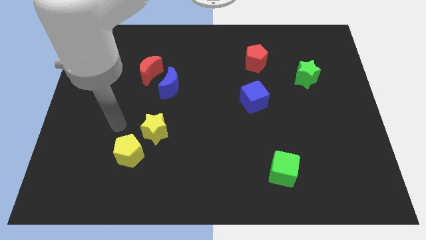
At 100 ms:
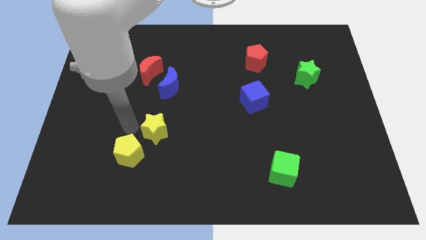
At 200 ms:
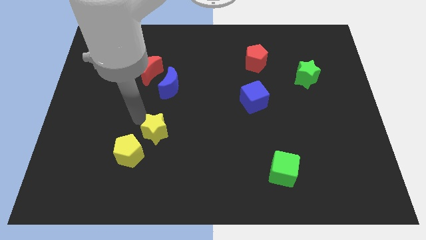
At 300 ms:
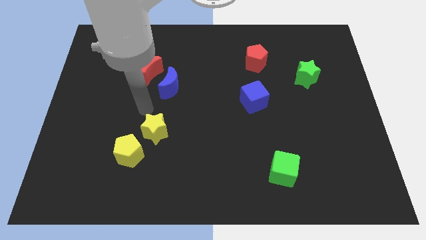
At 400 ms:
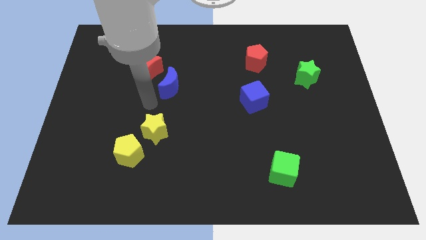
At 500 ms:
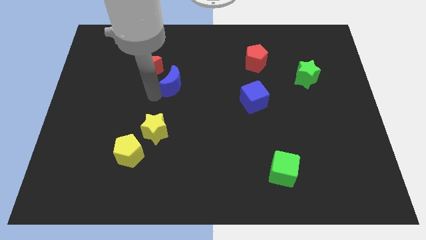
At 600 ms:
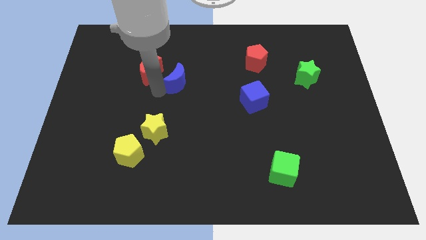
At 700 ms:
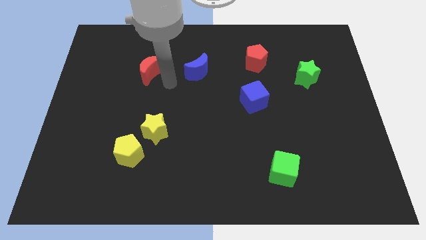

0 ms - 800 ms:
separate the red moon from the blue moon

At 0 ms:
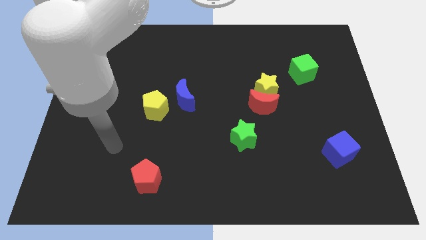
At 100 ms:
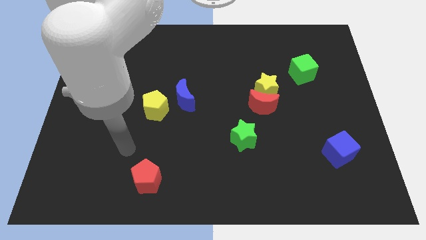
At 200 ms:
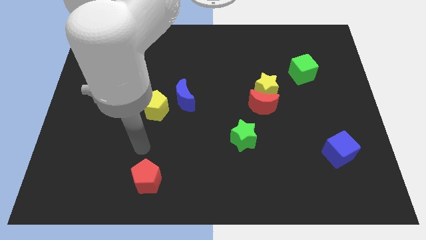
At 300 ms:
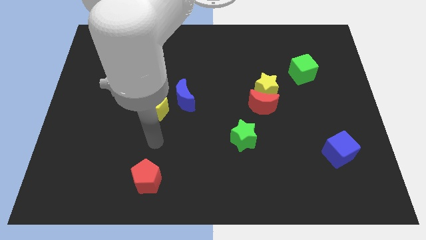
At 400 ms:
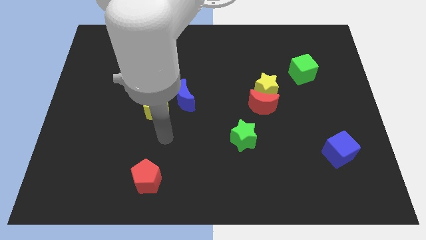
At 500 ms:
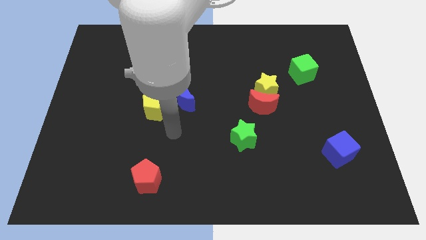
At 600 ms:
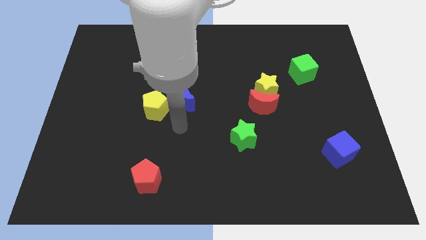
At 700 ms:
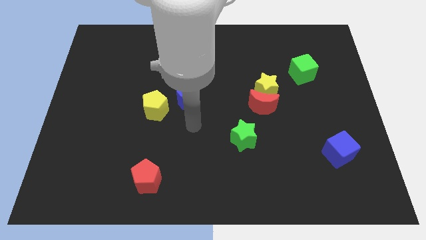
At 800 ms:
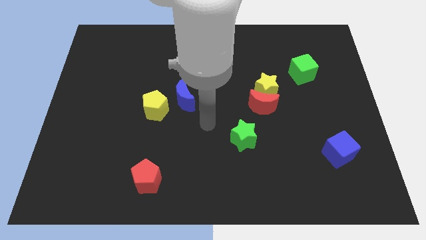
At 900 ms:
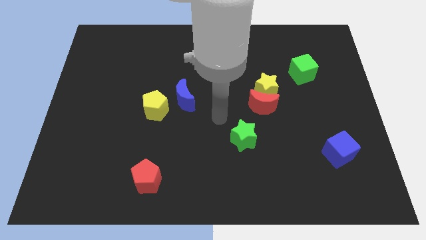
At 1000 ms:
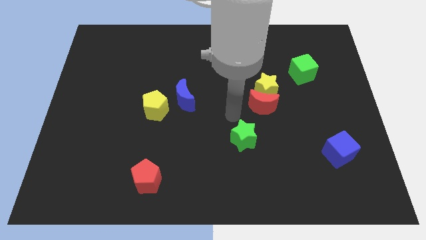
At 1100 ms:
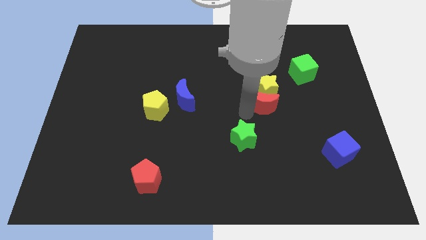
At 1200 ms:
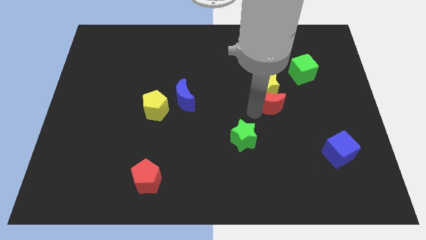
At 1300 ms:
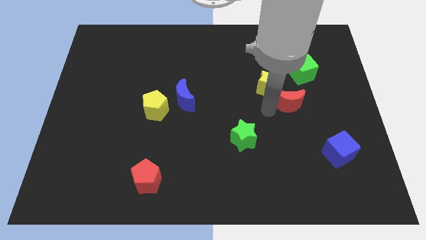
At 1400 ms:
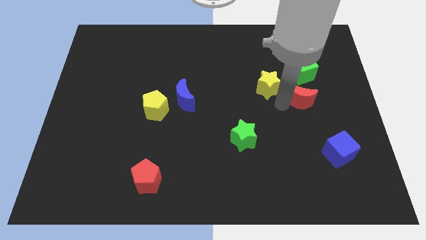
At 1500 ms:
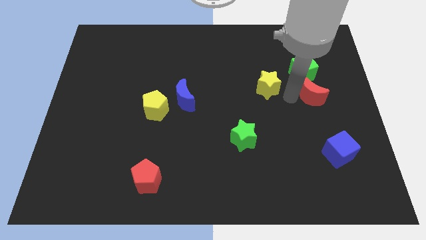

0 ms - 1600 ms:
separate the yellow star from the red moon

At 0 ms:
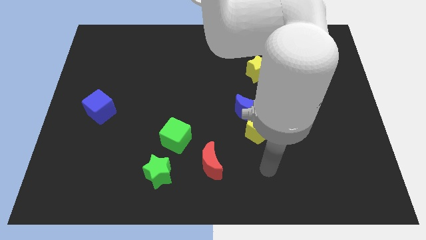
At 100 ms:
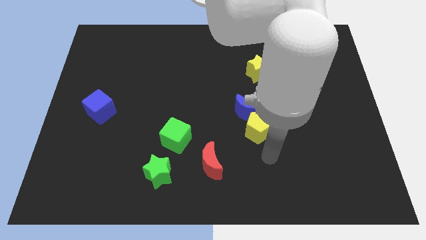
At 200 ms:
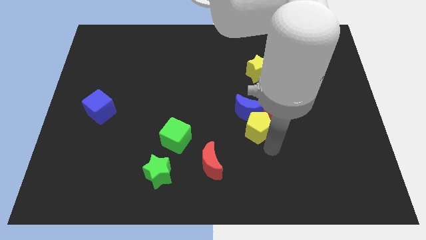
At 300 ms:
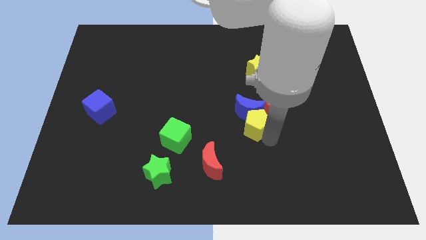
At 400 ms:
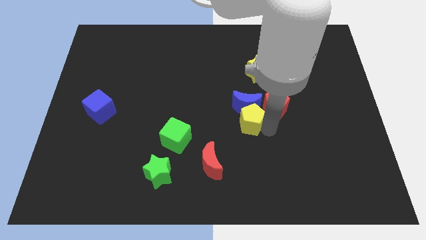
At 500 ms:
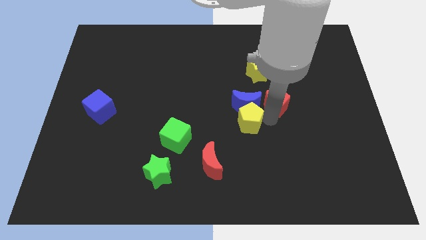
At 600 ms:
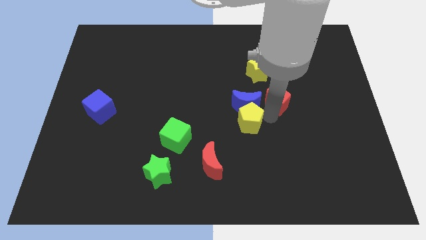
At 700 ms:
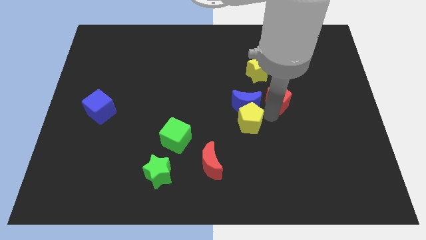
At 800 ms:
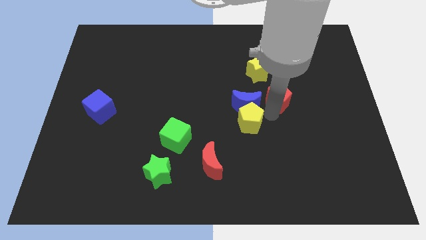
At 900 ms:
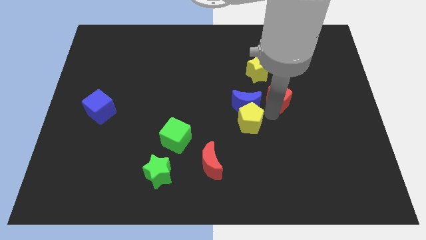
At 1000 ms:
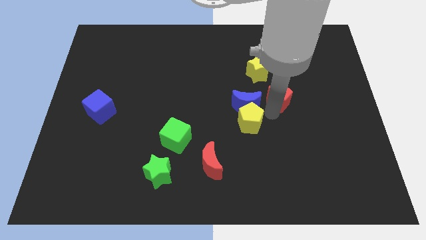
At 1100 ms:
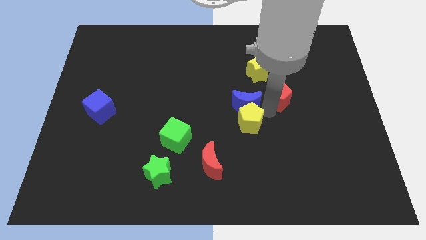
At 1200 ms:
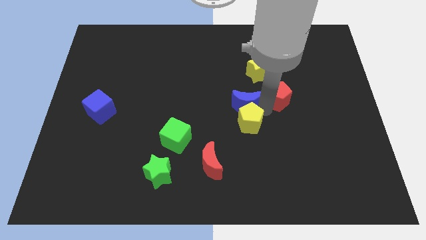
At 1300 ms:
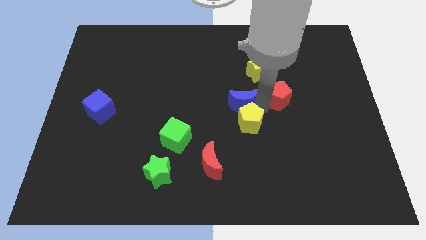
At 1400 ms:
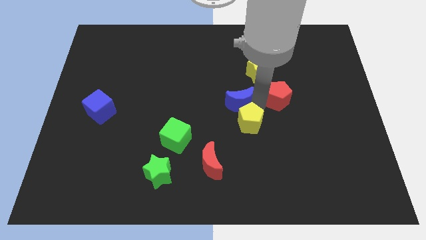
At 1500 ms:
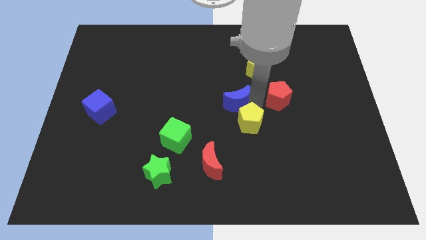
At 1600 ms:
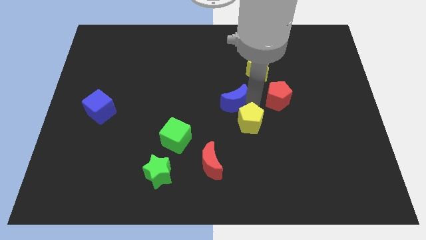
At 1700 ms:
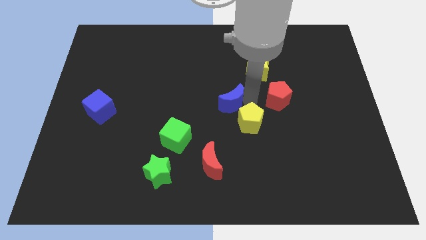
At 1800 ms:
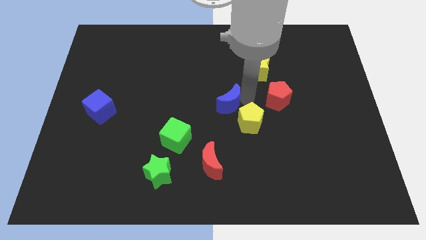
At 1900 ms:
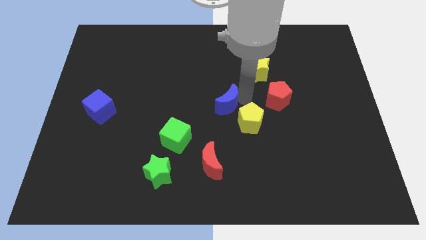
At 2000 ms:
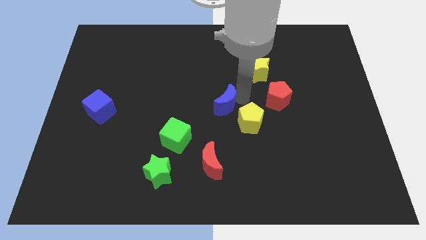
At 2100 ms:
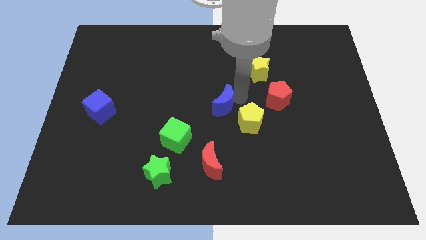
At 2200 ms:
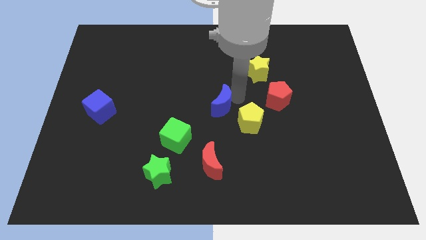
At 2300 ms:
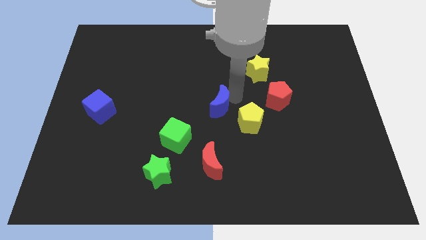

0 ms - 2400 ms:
pull the blue moon apart from the yellow pentagon and red pentagon

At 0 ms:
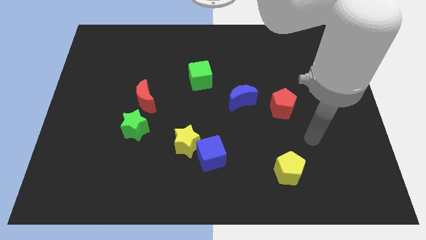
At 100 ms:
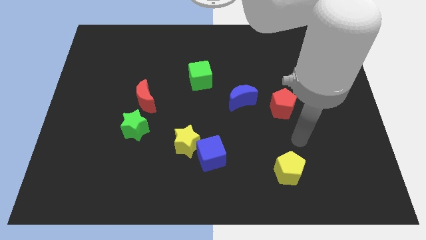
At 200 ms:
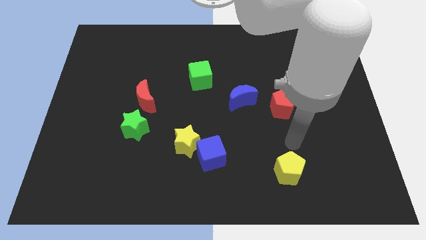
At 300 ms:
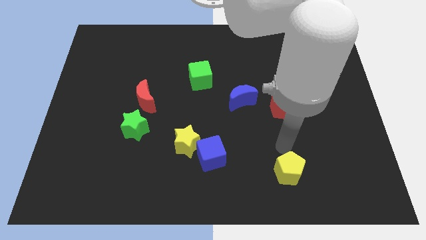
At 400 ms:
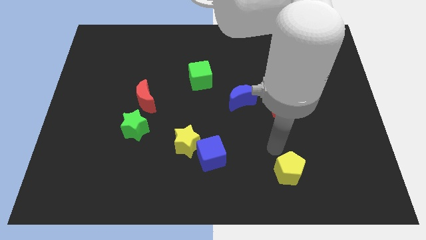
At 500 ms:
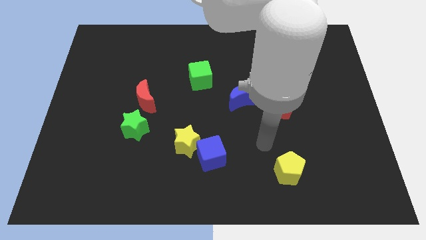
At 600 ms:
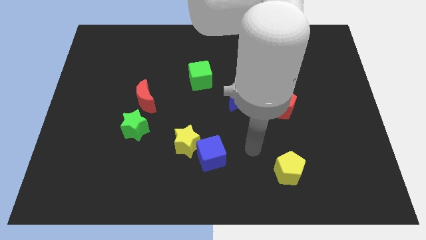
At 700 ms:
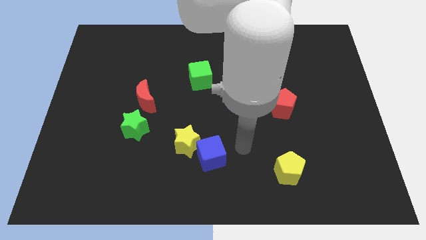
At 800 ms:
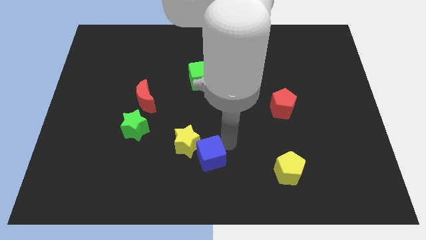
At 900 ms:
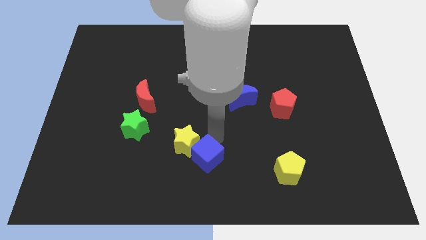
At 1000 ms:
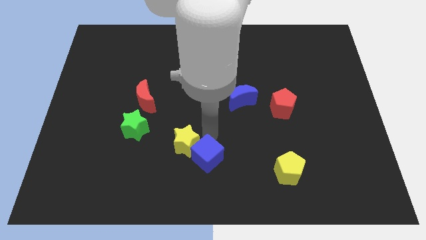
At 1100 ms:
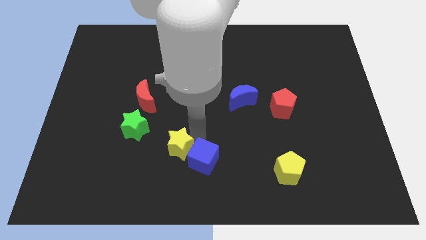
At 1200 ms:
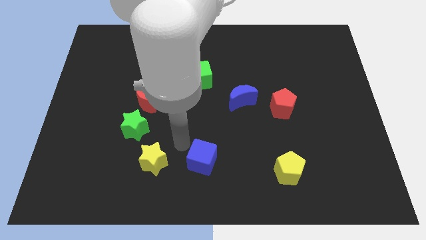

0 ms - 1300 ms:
separate the blue cube from the yellow star

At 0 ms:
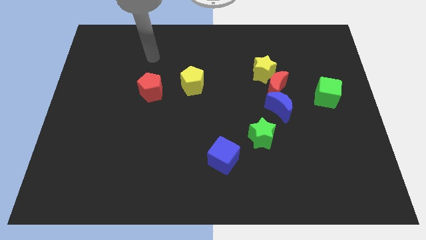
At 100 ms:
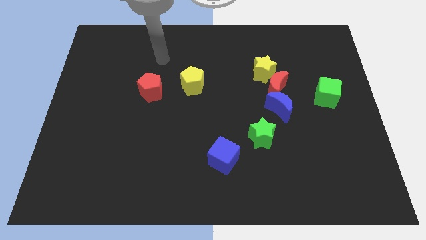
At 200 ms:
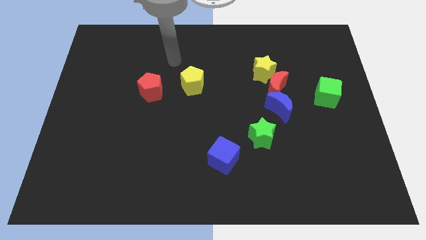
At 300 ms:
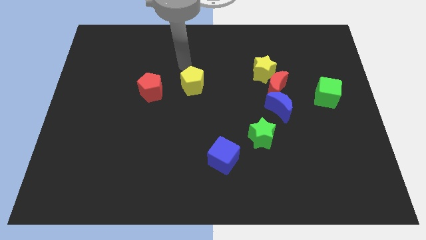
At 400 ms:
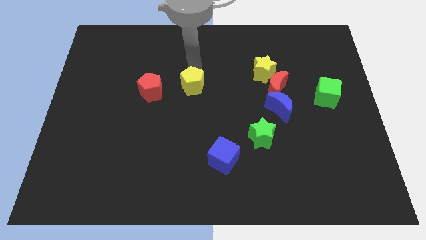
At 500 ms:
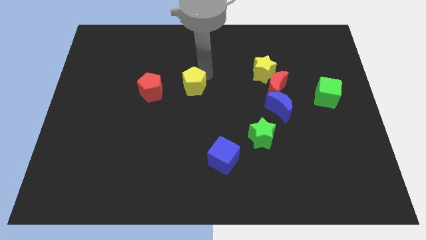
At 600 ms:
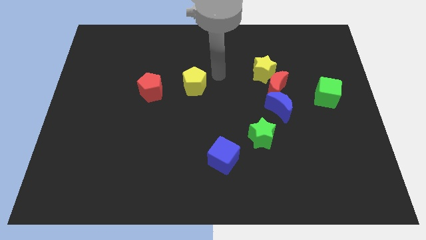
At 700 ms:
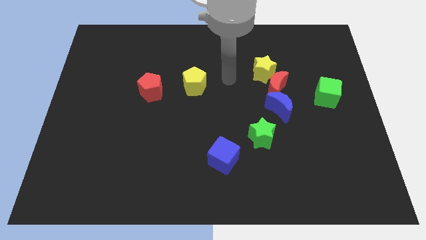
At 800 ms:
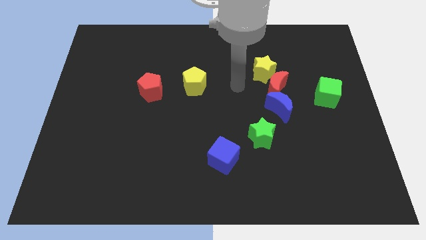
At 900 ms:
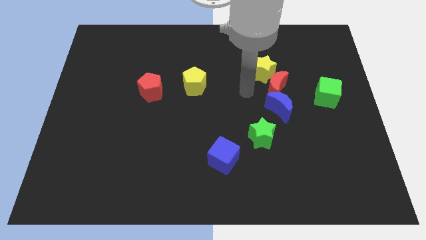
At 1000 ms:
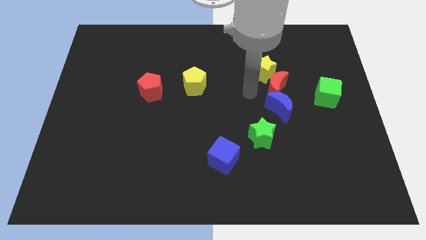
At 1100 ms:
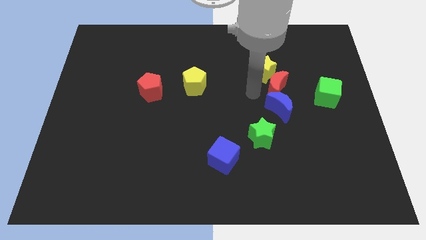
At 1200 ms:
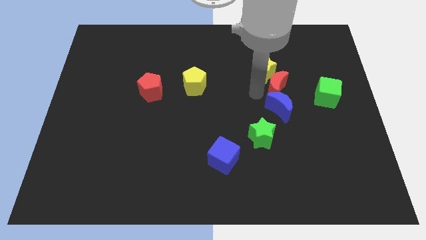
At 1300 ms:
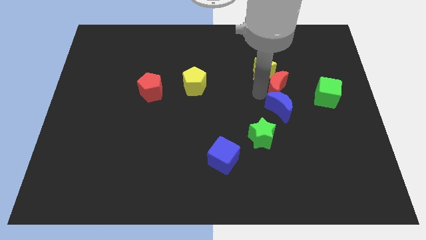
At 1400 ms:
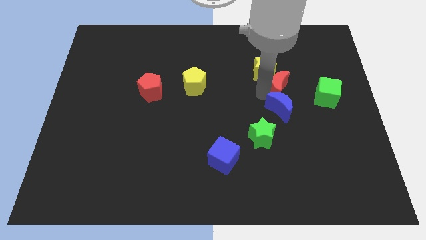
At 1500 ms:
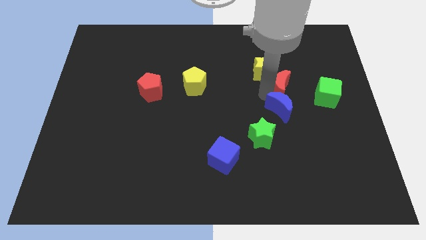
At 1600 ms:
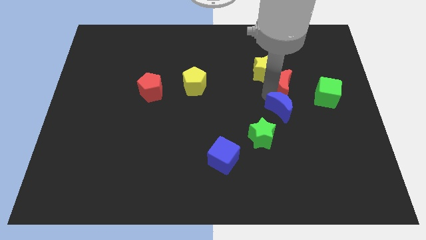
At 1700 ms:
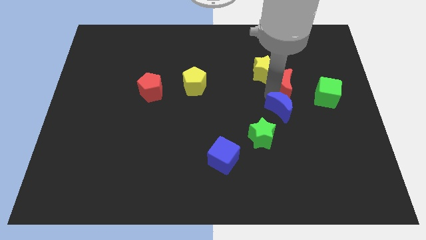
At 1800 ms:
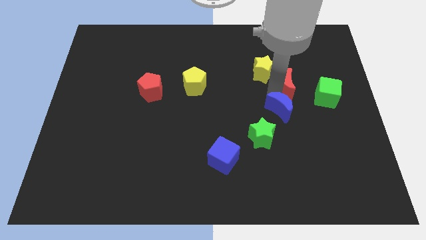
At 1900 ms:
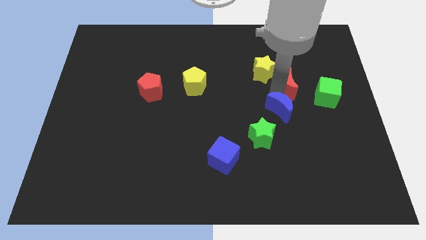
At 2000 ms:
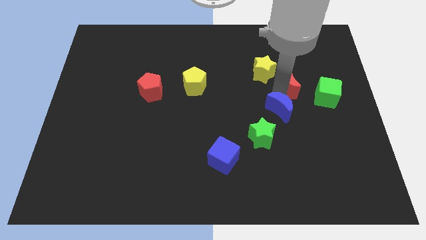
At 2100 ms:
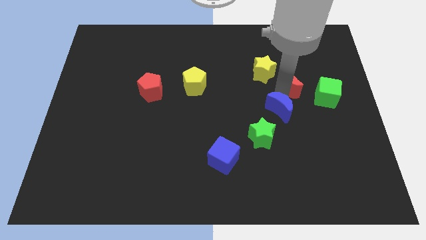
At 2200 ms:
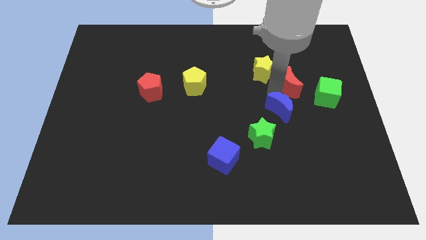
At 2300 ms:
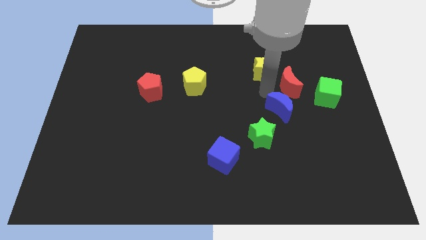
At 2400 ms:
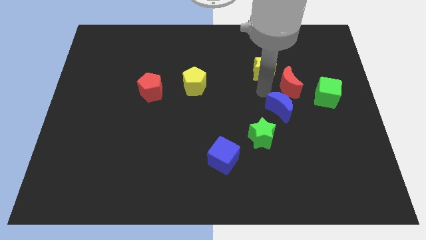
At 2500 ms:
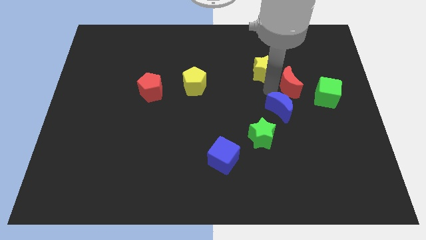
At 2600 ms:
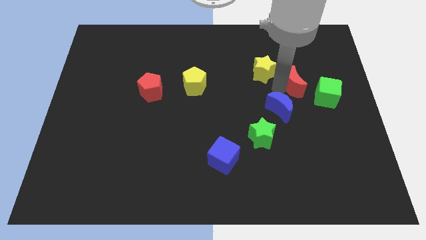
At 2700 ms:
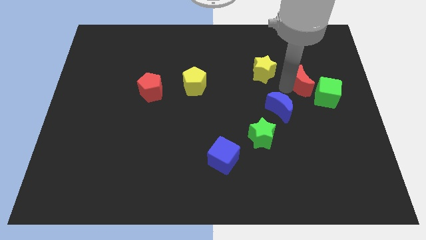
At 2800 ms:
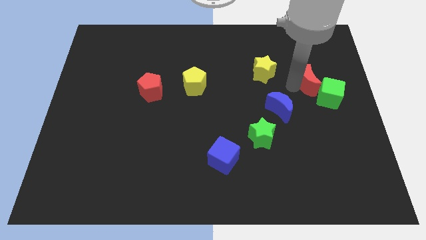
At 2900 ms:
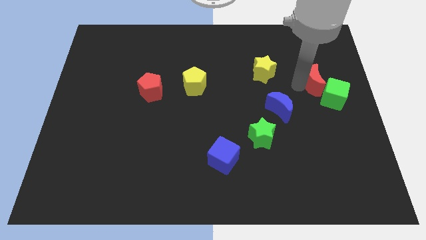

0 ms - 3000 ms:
move the red moon away from the blue moon and yellow star

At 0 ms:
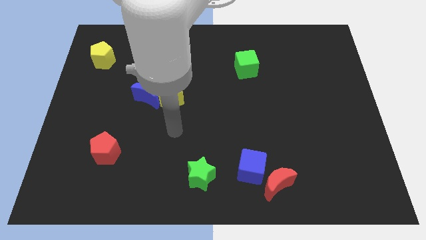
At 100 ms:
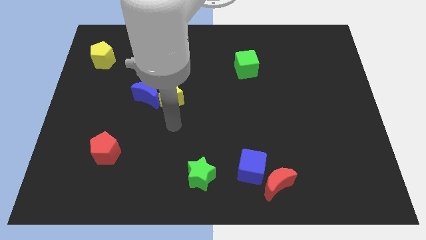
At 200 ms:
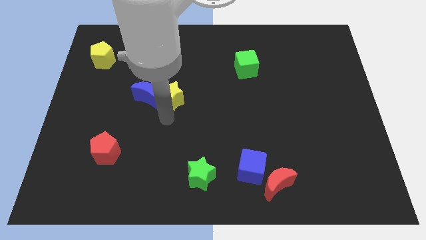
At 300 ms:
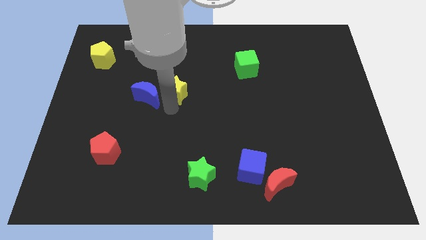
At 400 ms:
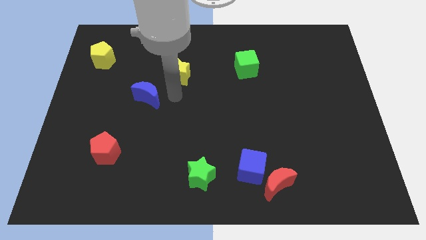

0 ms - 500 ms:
separate the blue moon from the yellow star
